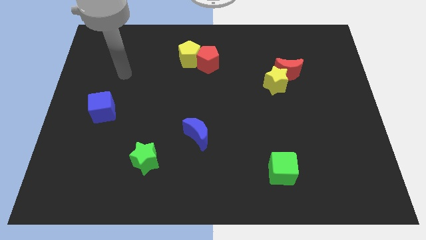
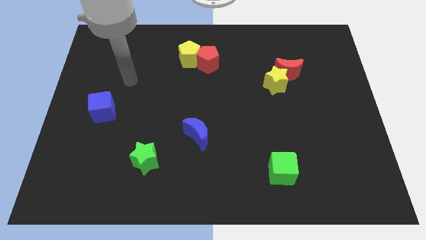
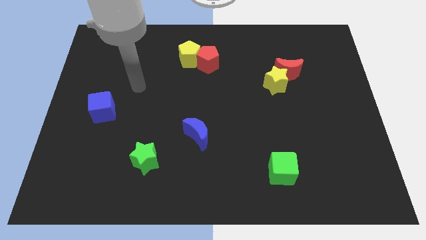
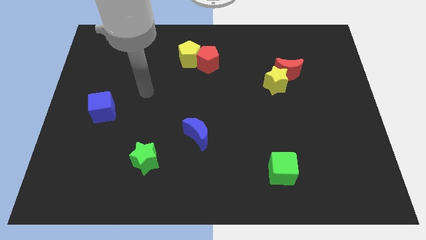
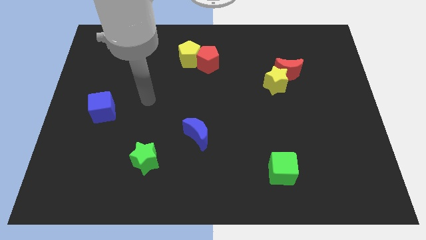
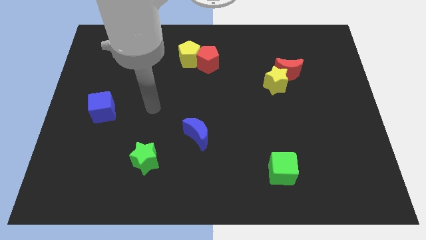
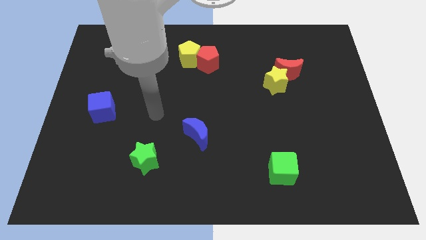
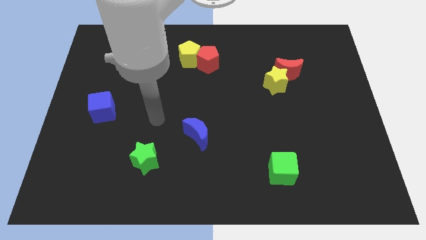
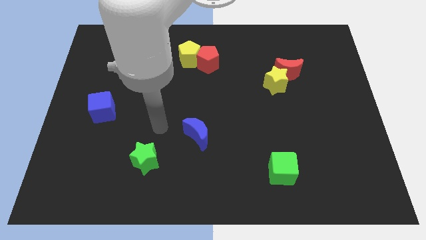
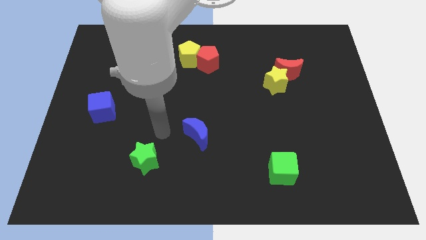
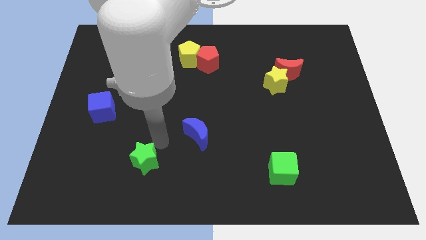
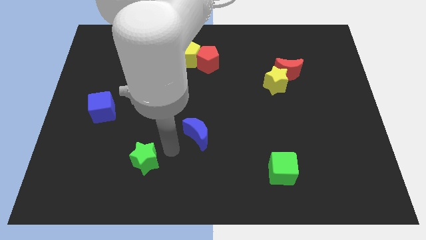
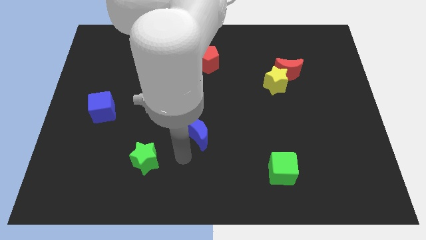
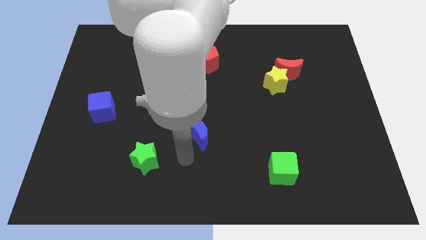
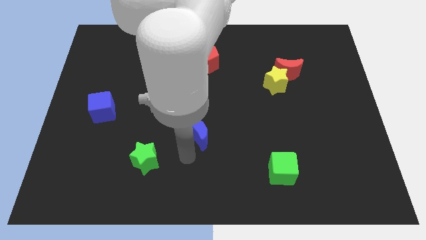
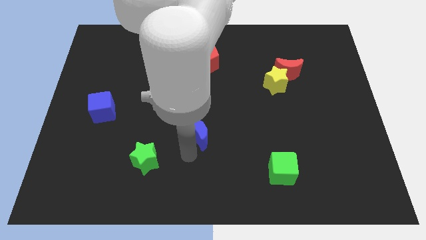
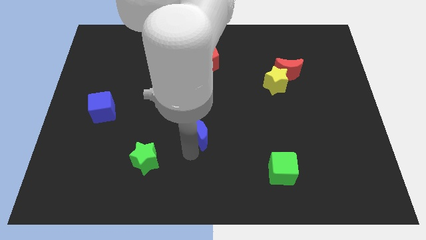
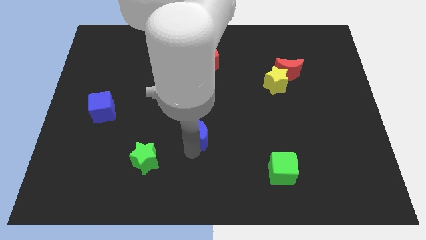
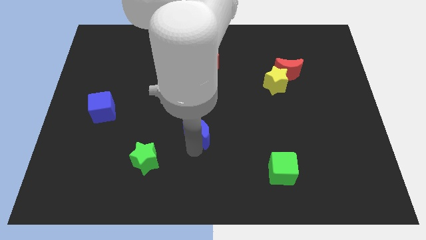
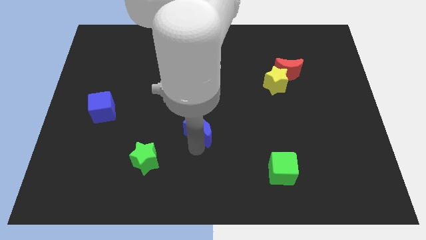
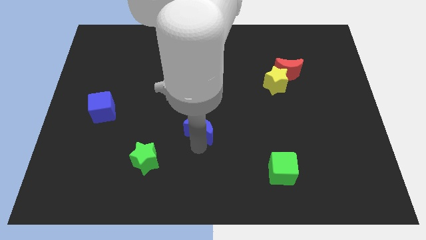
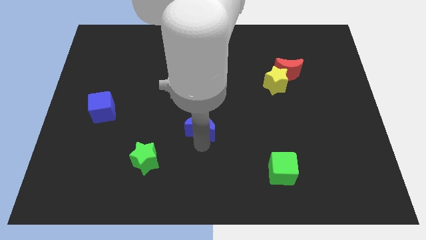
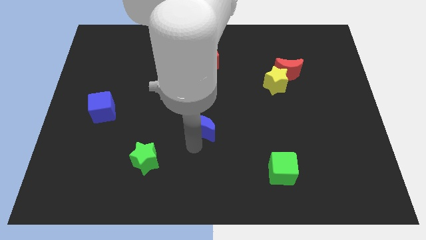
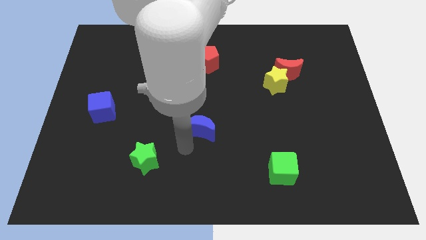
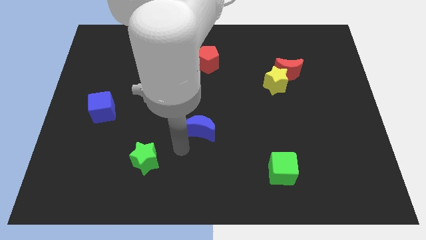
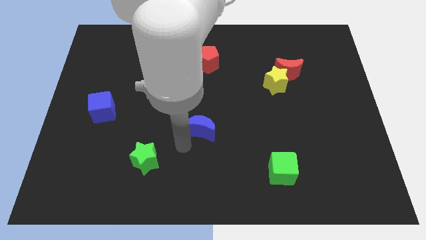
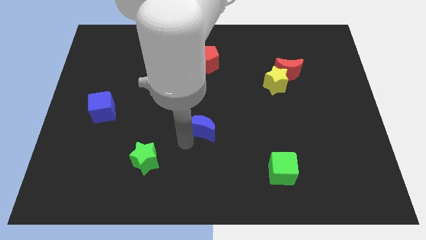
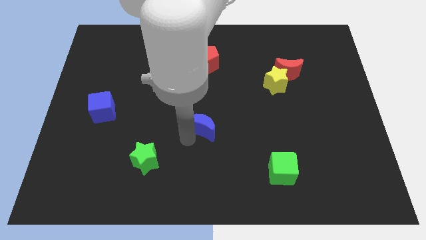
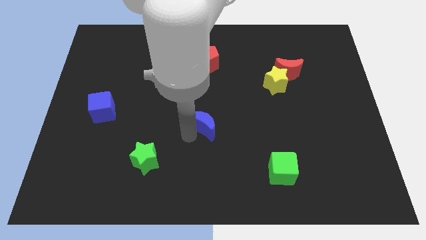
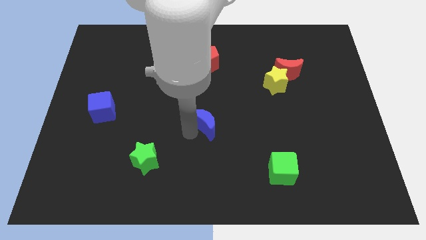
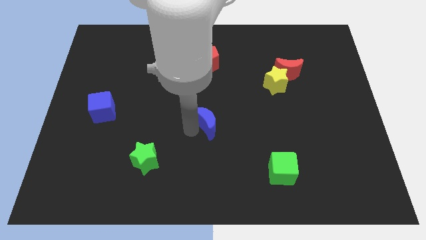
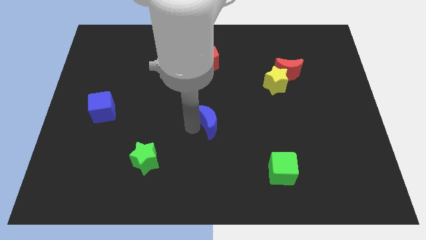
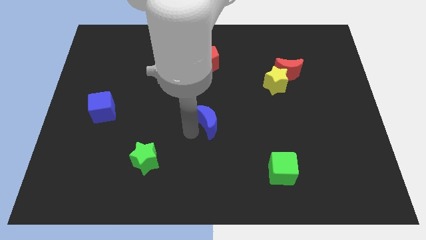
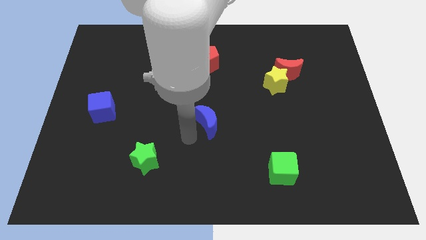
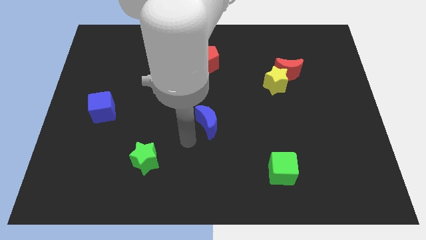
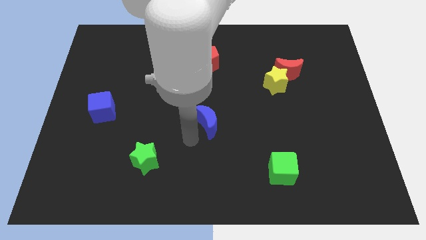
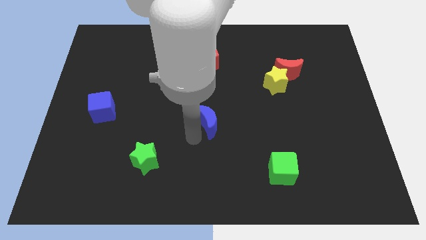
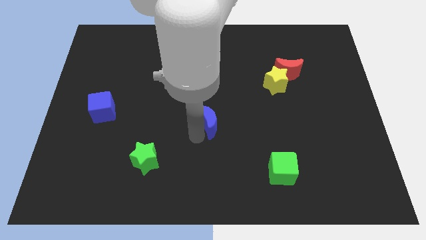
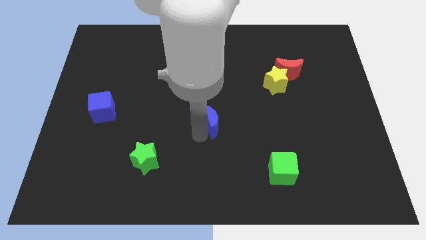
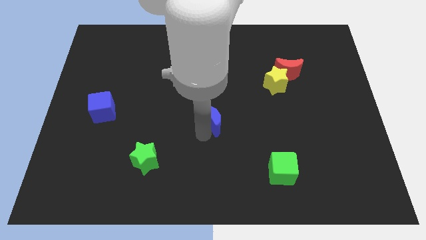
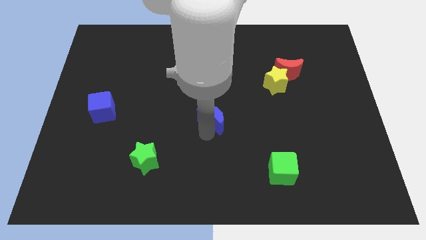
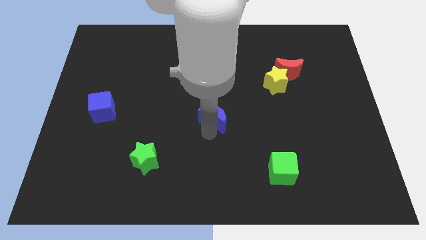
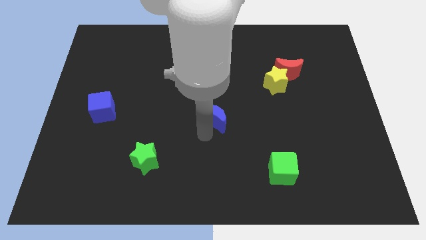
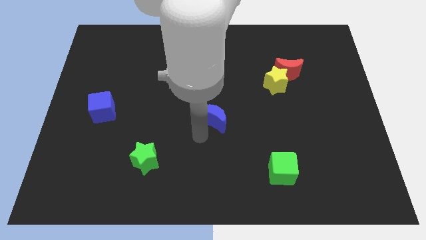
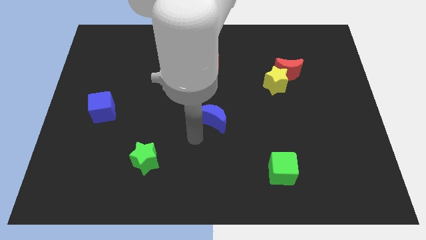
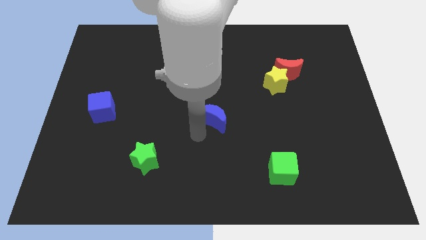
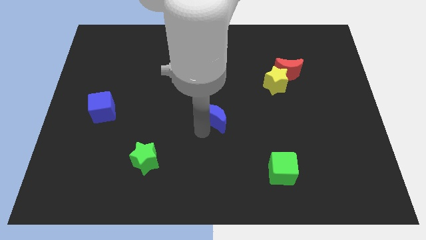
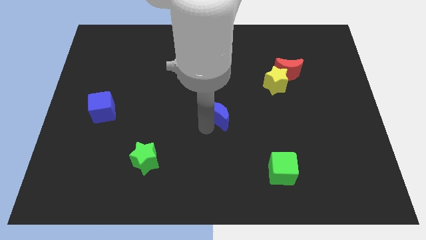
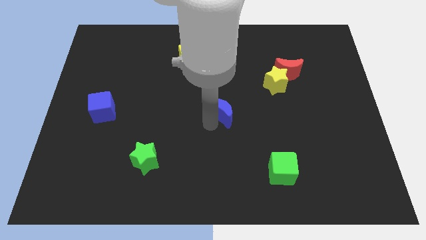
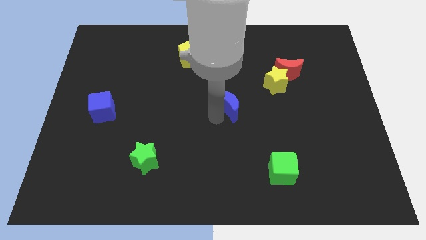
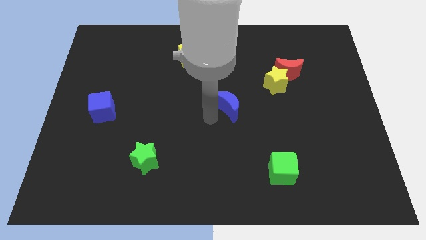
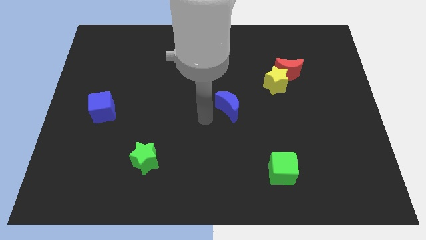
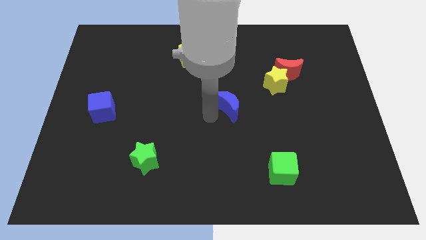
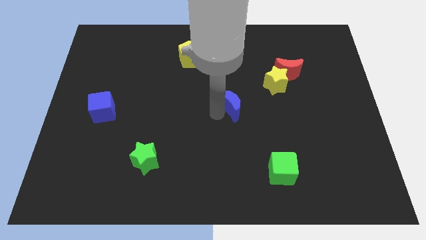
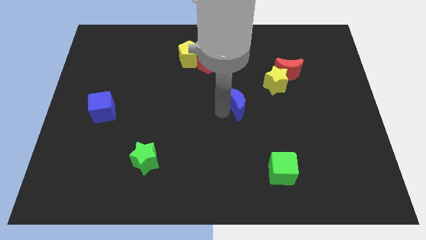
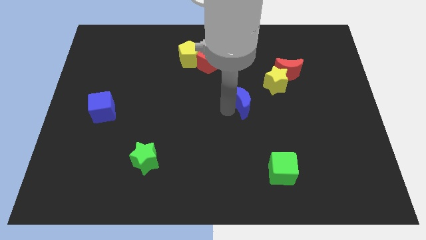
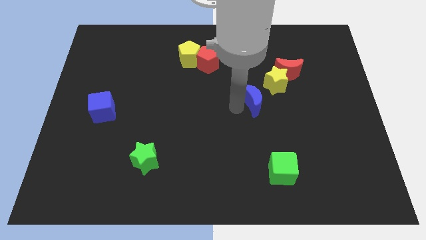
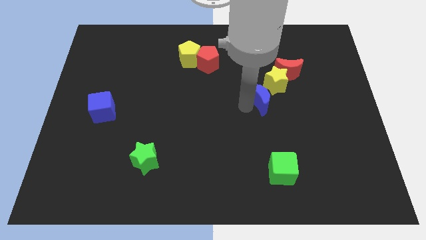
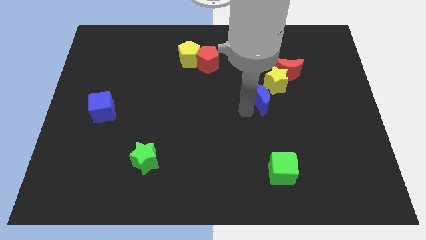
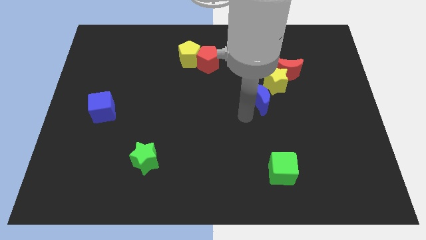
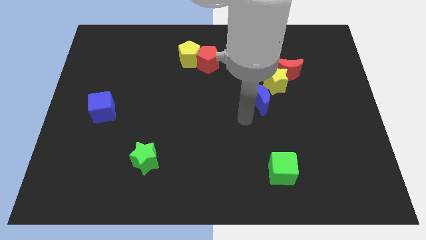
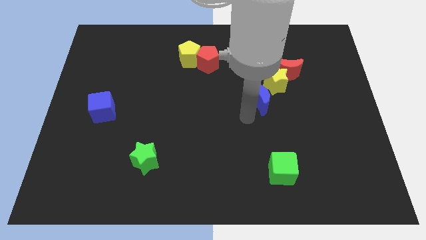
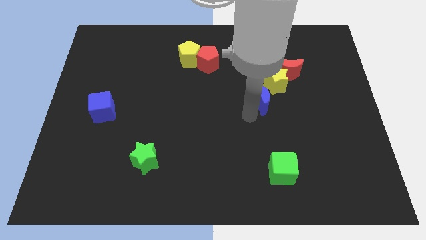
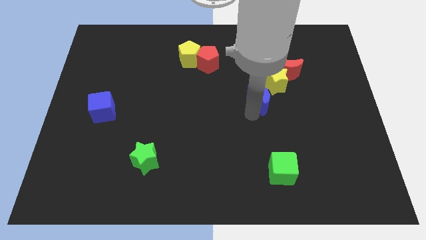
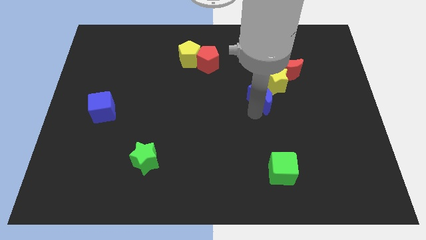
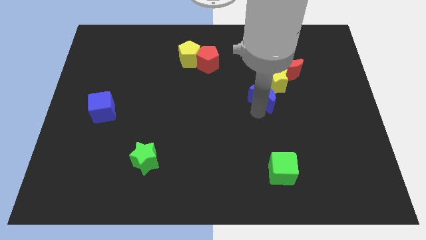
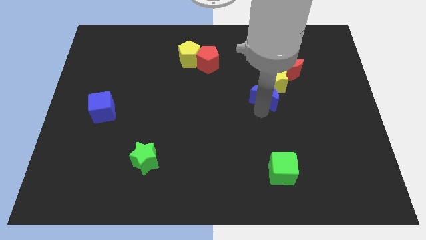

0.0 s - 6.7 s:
push the blue moon close to the yellow star
